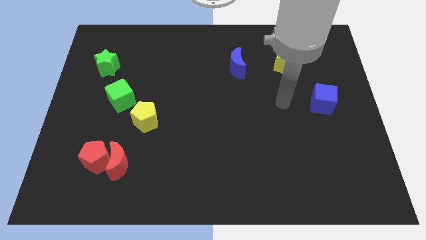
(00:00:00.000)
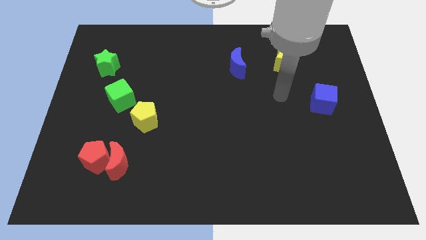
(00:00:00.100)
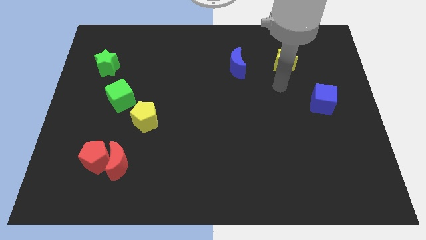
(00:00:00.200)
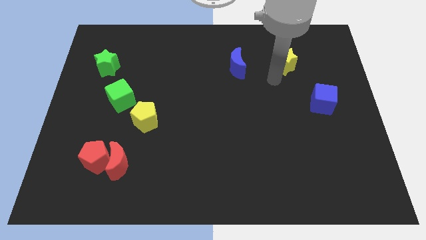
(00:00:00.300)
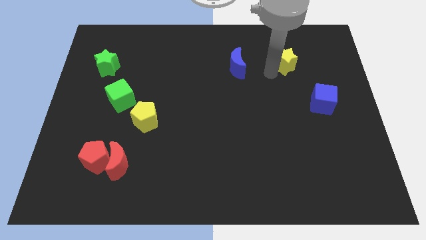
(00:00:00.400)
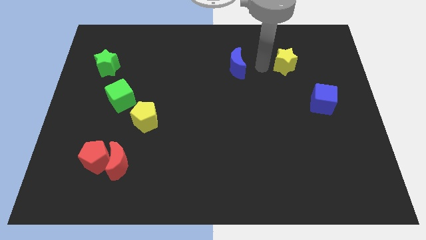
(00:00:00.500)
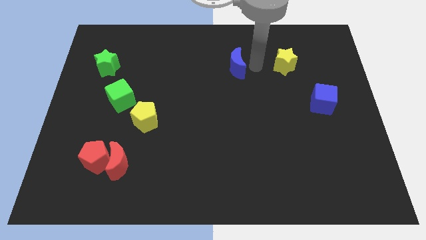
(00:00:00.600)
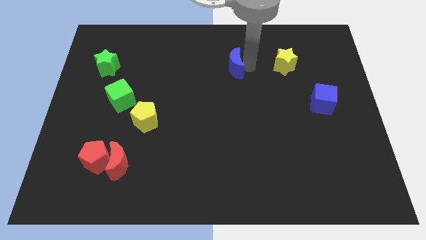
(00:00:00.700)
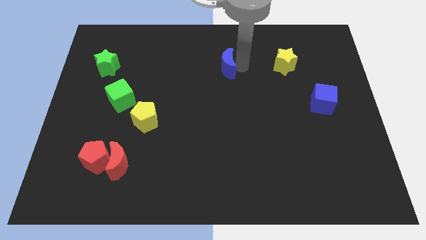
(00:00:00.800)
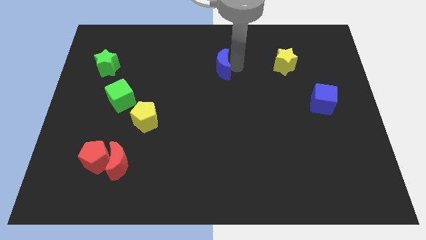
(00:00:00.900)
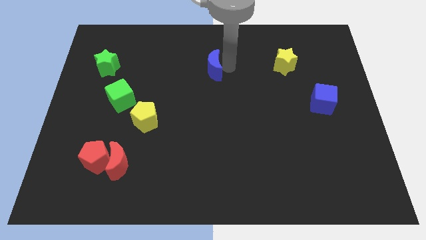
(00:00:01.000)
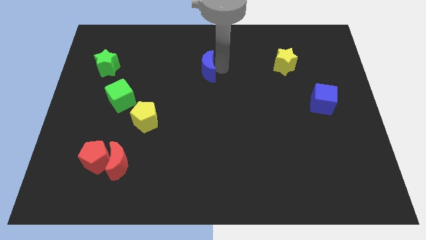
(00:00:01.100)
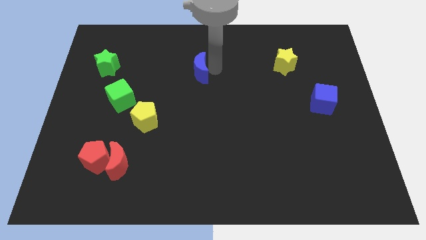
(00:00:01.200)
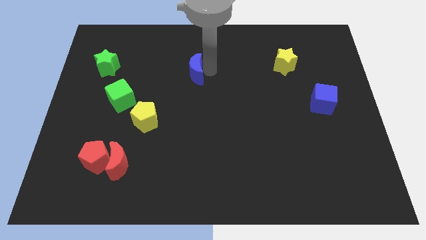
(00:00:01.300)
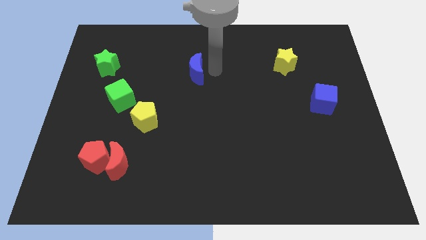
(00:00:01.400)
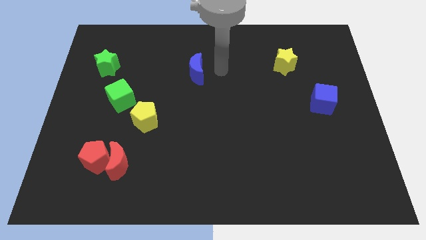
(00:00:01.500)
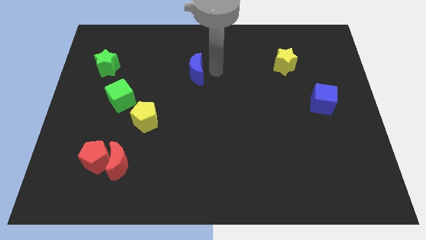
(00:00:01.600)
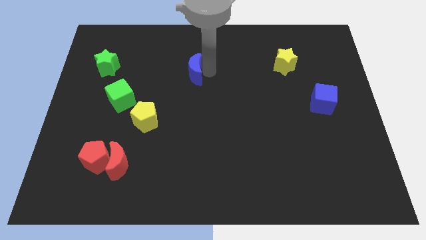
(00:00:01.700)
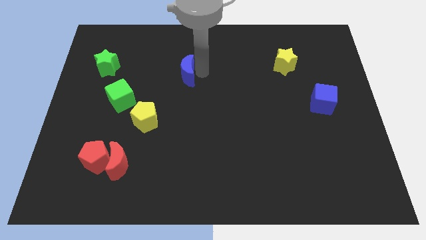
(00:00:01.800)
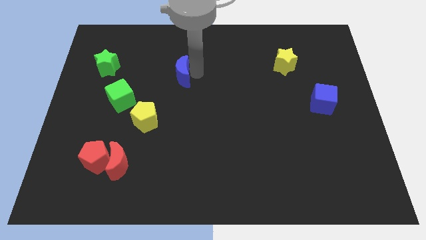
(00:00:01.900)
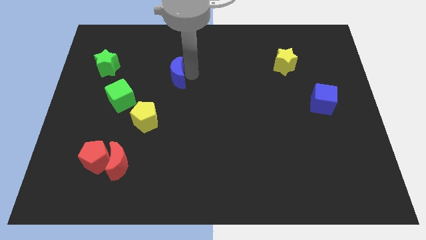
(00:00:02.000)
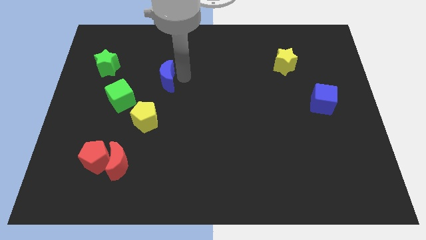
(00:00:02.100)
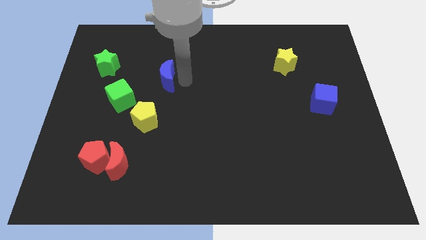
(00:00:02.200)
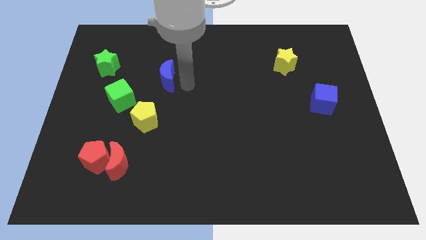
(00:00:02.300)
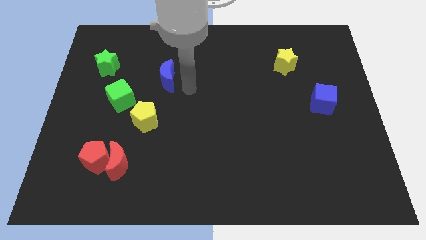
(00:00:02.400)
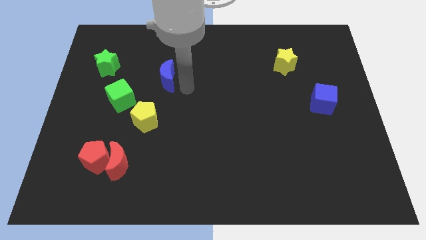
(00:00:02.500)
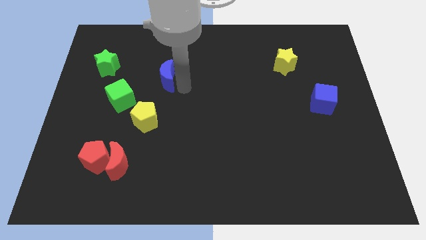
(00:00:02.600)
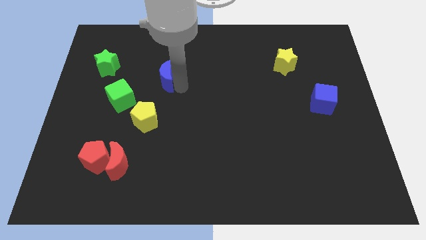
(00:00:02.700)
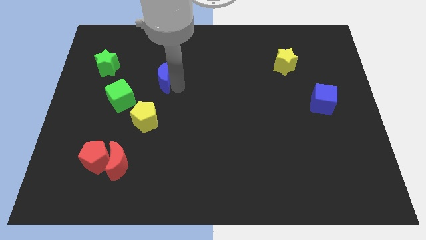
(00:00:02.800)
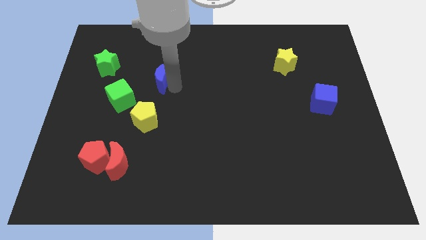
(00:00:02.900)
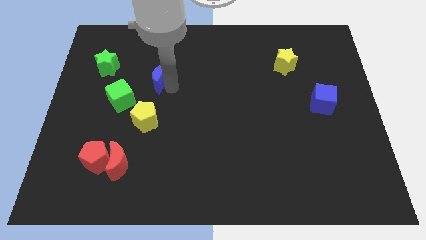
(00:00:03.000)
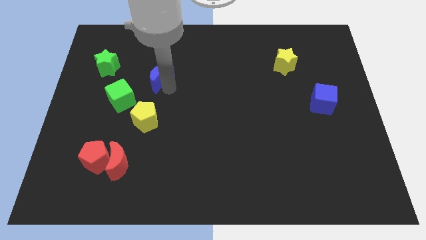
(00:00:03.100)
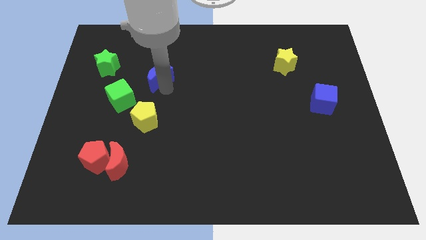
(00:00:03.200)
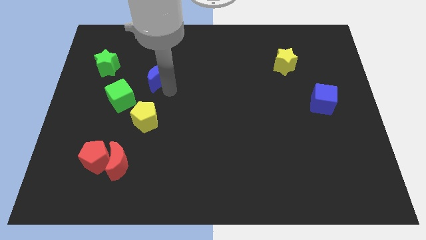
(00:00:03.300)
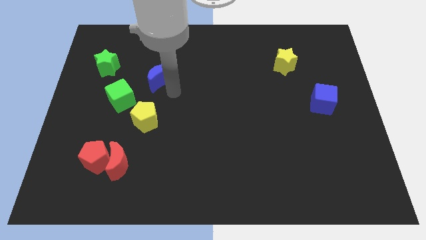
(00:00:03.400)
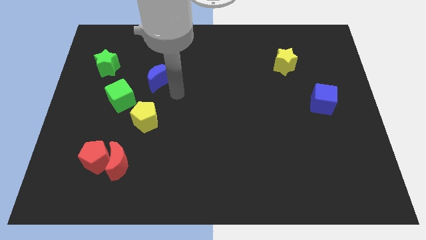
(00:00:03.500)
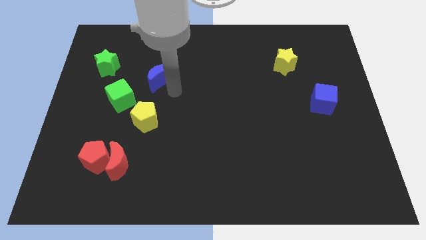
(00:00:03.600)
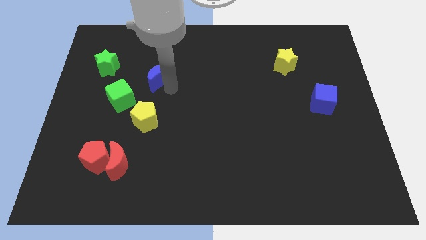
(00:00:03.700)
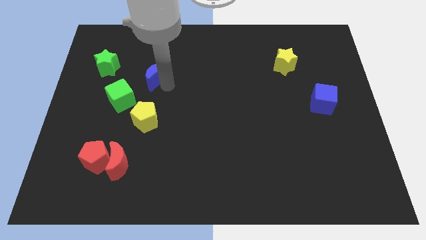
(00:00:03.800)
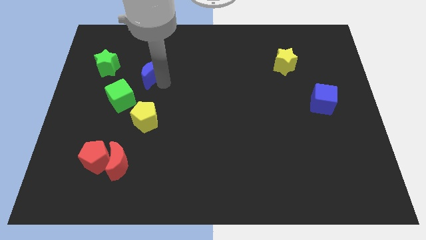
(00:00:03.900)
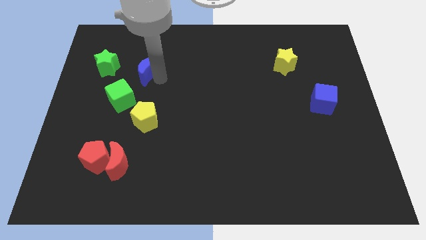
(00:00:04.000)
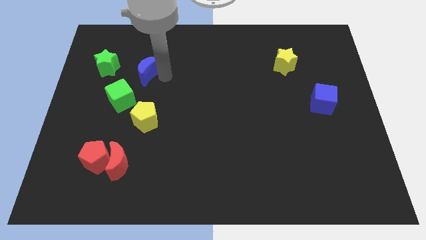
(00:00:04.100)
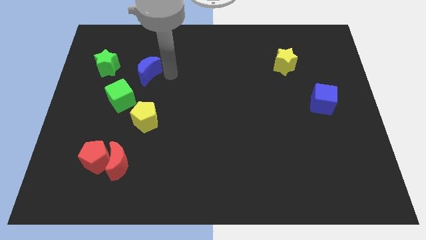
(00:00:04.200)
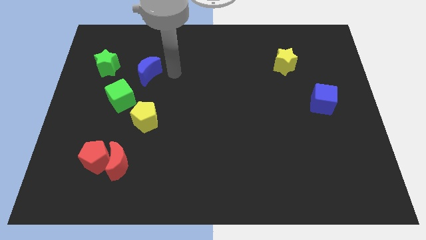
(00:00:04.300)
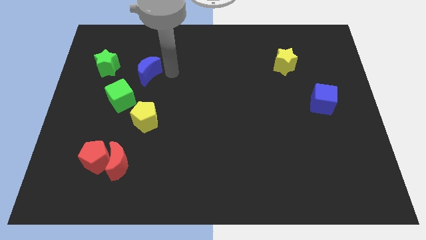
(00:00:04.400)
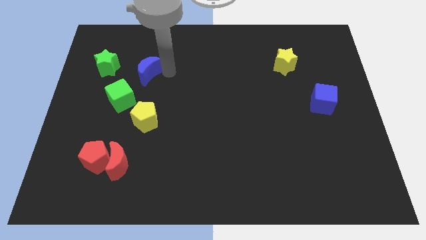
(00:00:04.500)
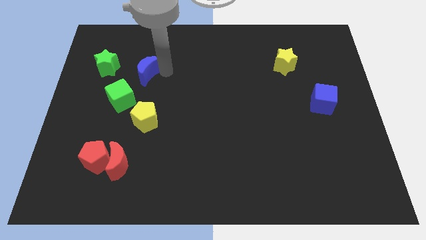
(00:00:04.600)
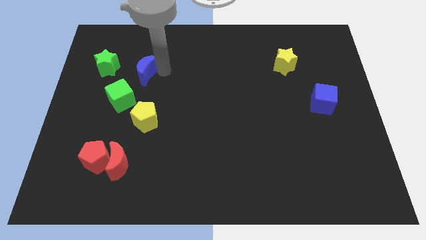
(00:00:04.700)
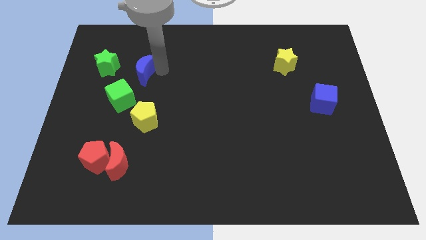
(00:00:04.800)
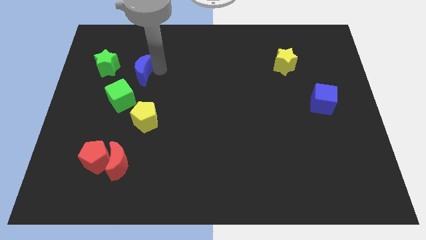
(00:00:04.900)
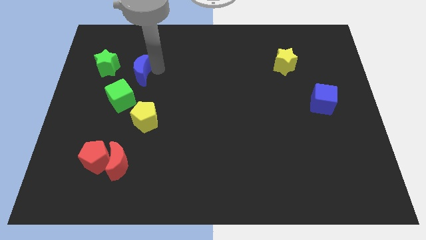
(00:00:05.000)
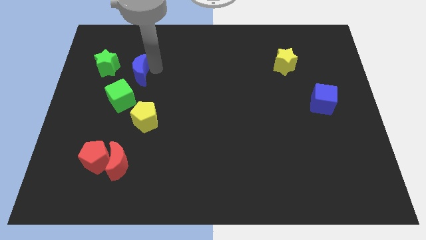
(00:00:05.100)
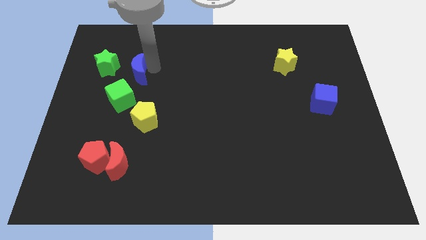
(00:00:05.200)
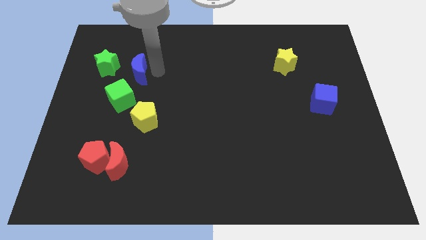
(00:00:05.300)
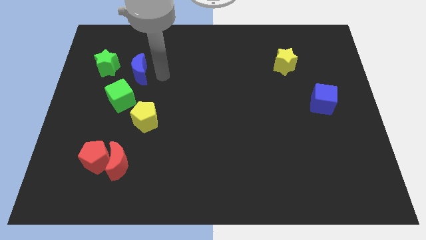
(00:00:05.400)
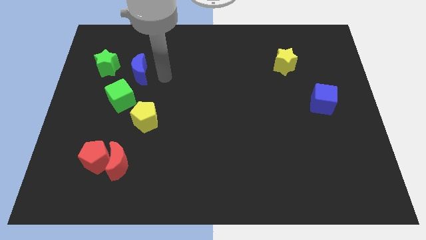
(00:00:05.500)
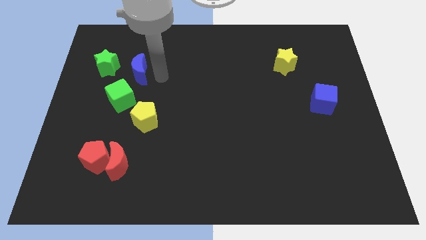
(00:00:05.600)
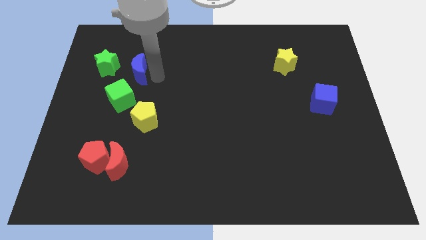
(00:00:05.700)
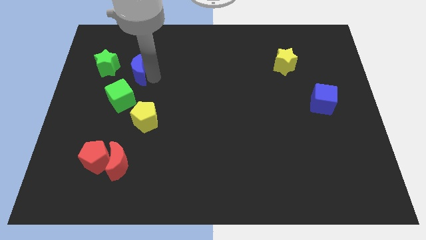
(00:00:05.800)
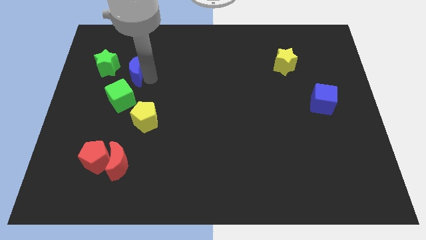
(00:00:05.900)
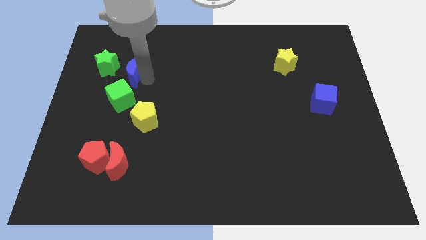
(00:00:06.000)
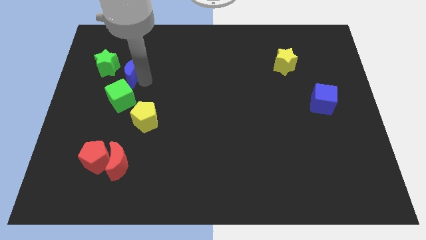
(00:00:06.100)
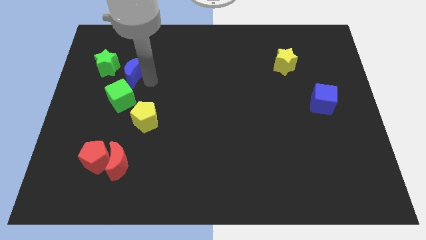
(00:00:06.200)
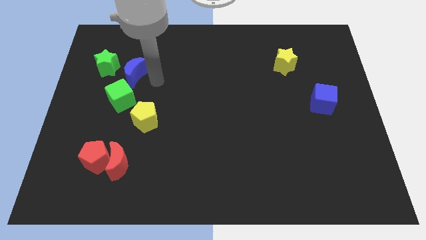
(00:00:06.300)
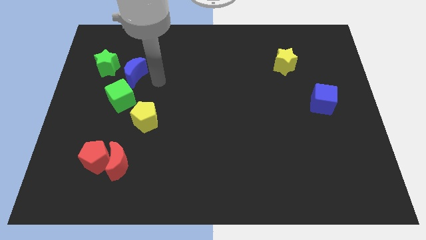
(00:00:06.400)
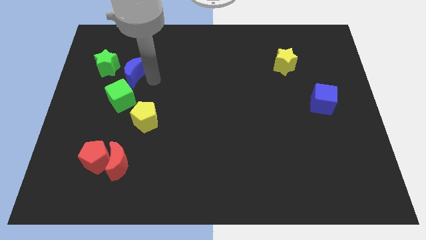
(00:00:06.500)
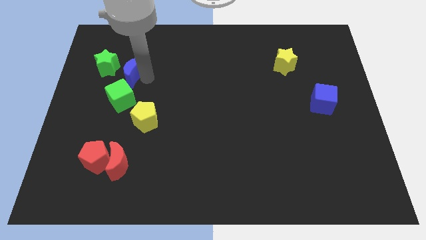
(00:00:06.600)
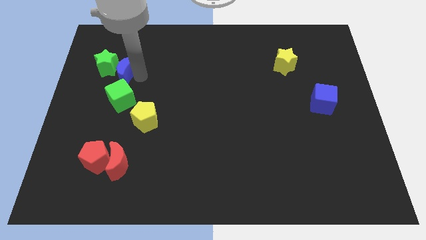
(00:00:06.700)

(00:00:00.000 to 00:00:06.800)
move the blue moon towards the green star
